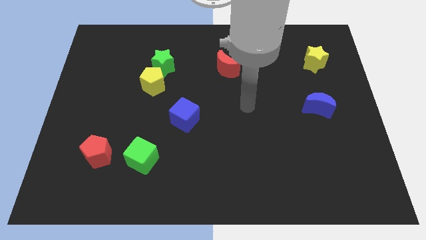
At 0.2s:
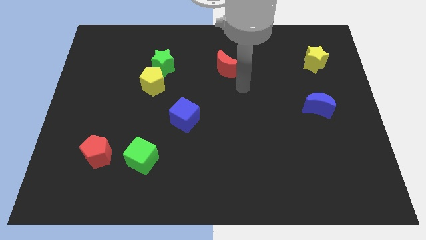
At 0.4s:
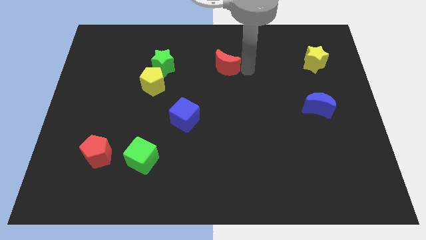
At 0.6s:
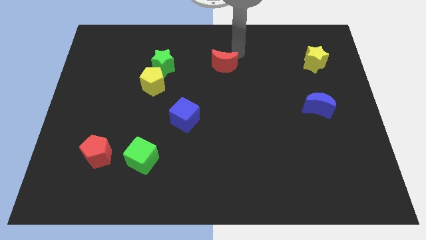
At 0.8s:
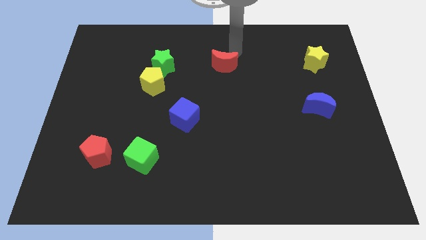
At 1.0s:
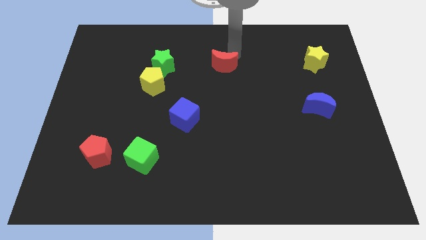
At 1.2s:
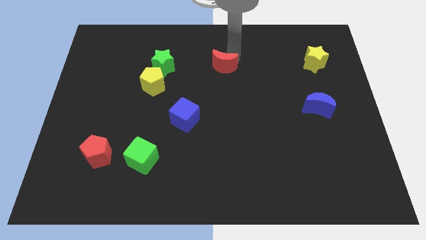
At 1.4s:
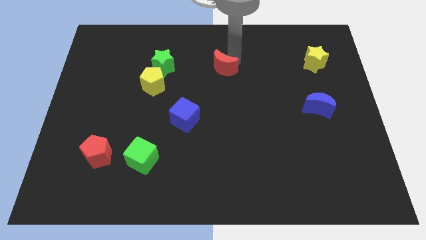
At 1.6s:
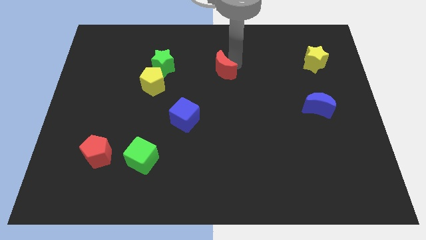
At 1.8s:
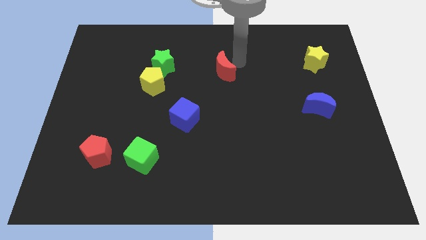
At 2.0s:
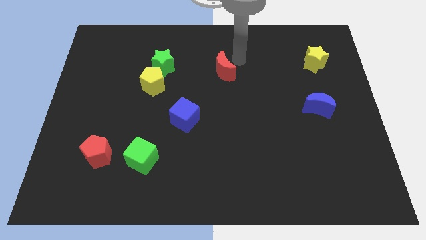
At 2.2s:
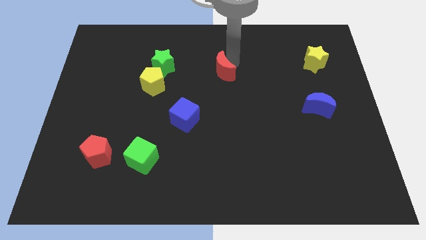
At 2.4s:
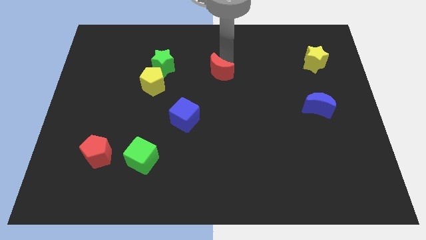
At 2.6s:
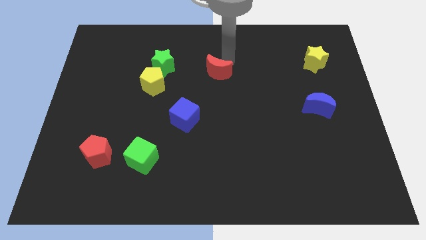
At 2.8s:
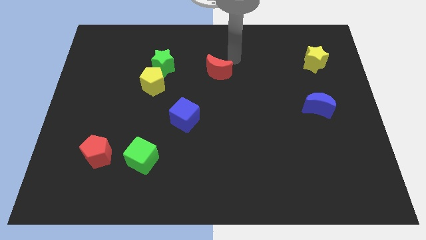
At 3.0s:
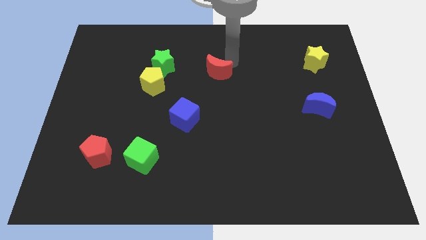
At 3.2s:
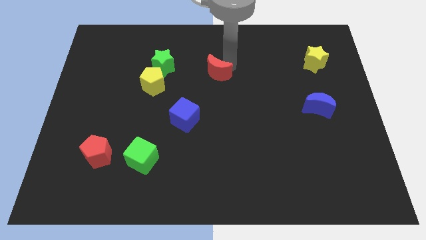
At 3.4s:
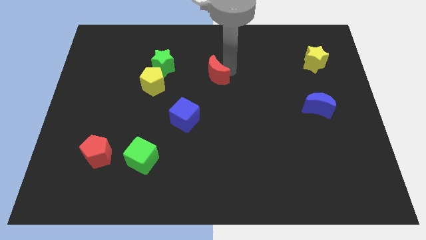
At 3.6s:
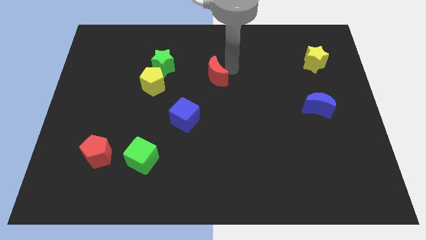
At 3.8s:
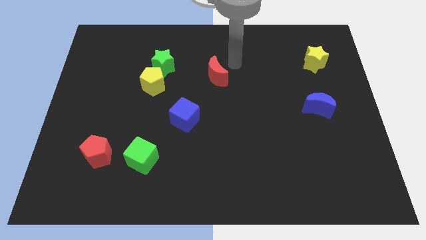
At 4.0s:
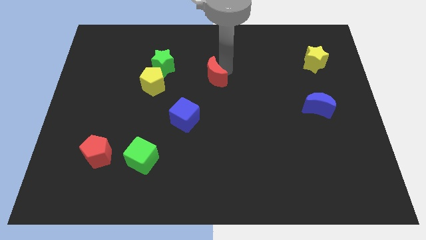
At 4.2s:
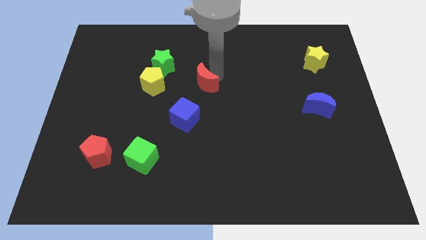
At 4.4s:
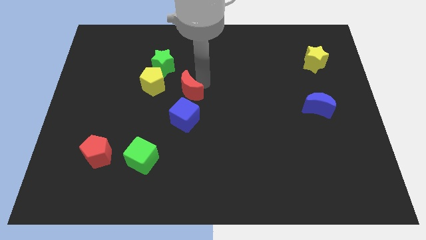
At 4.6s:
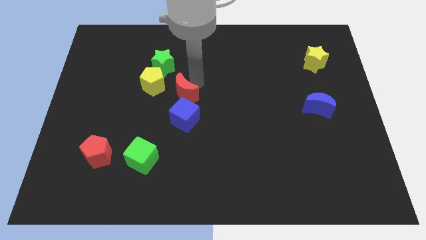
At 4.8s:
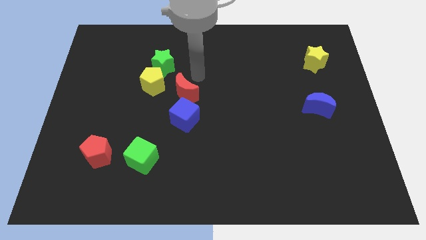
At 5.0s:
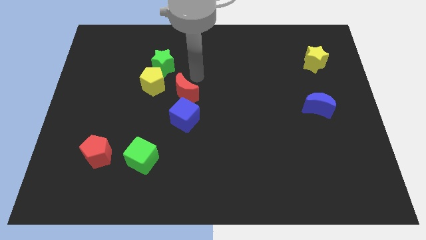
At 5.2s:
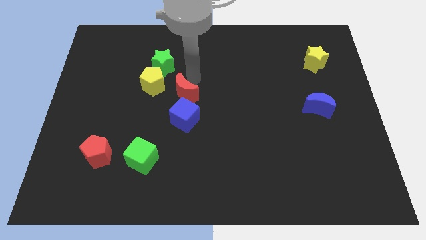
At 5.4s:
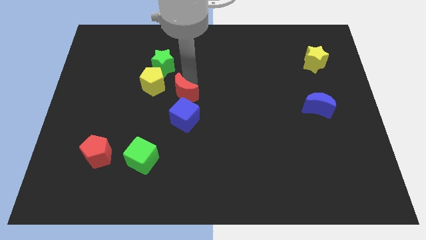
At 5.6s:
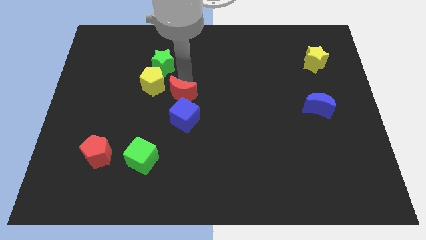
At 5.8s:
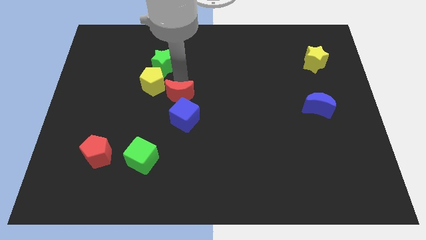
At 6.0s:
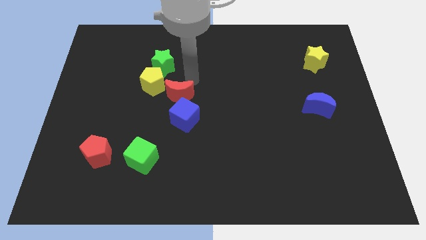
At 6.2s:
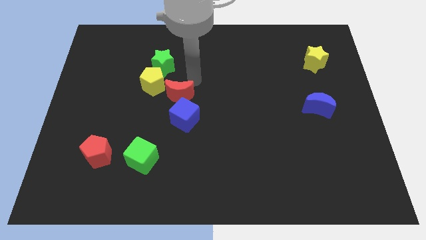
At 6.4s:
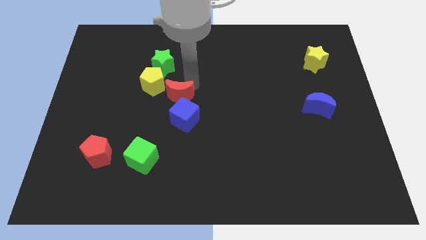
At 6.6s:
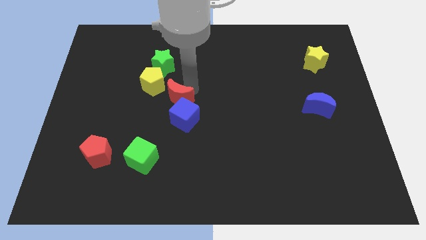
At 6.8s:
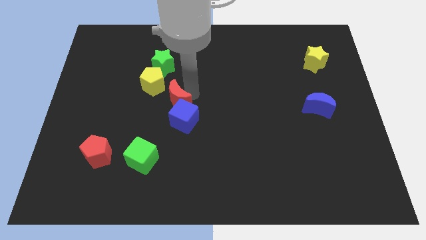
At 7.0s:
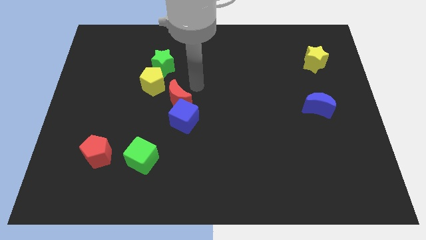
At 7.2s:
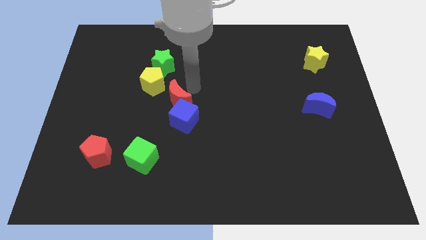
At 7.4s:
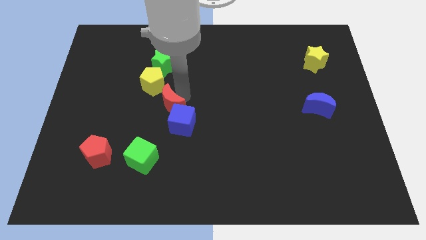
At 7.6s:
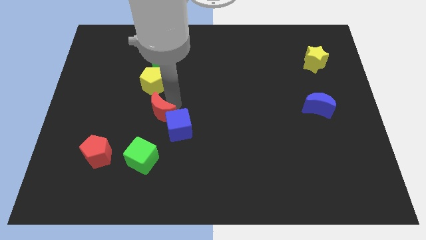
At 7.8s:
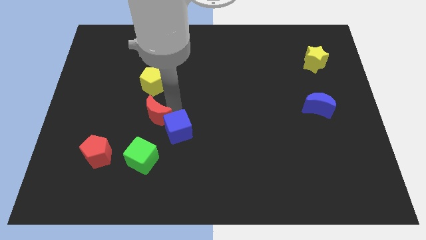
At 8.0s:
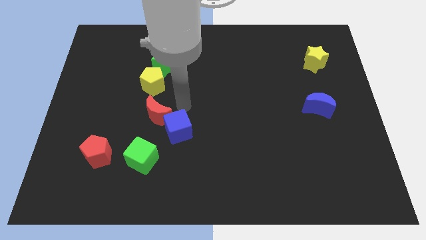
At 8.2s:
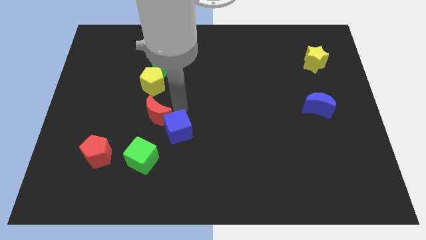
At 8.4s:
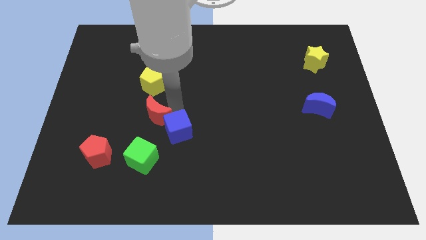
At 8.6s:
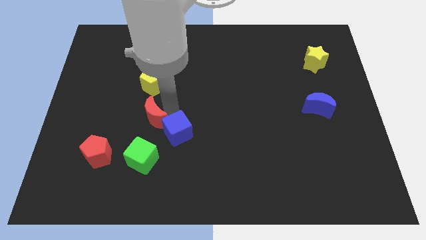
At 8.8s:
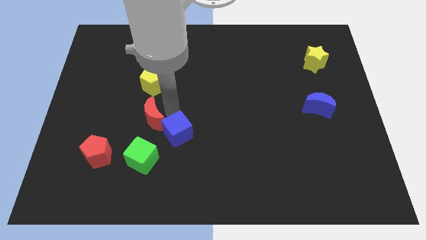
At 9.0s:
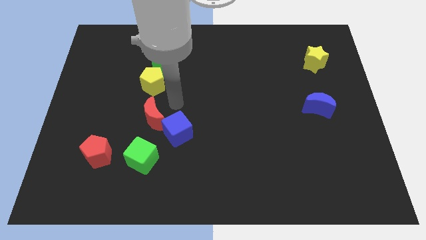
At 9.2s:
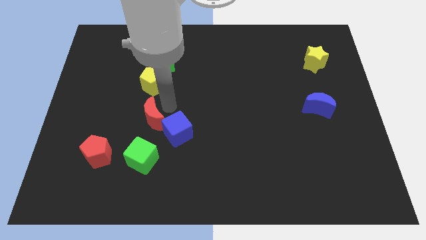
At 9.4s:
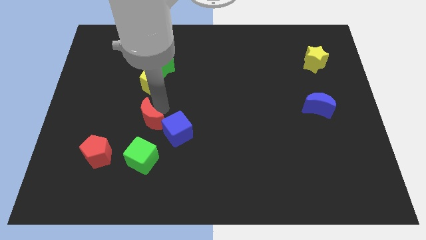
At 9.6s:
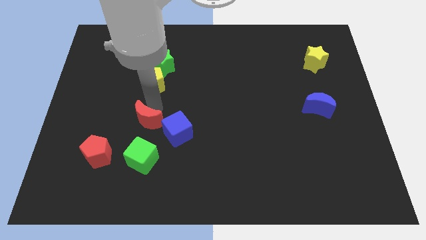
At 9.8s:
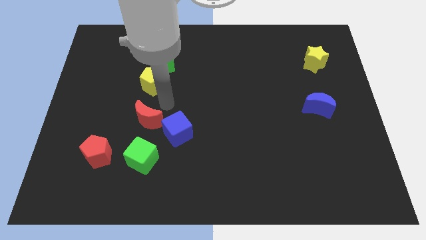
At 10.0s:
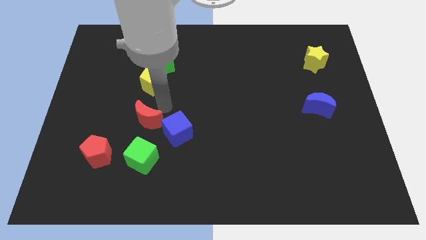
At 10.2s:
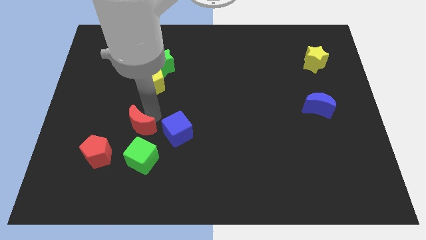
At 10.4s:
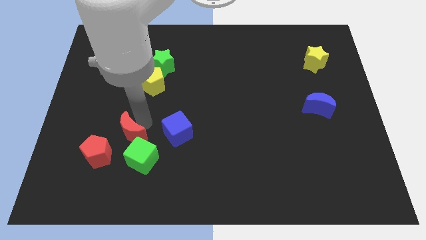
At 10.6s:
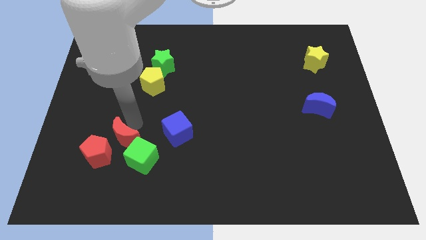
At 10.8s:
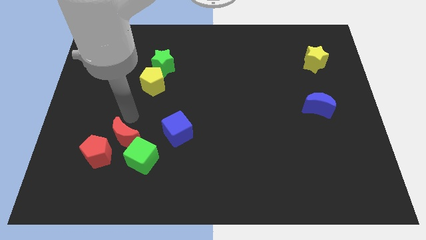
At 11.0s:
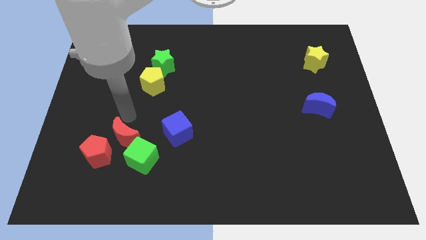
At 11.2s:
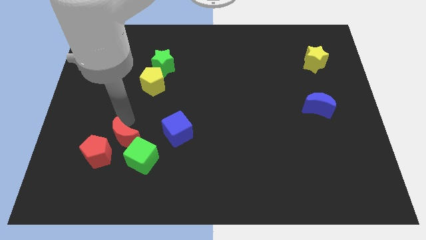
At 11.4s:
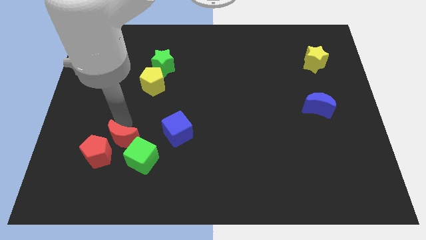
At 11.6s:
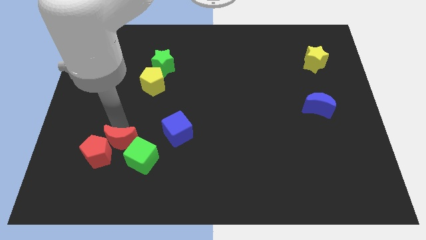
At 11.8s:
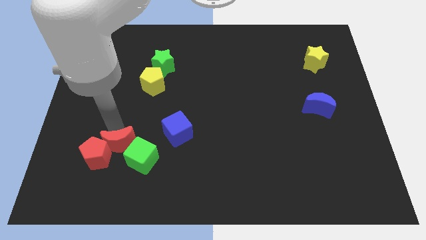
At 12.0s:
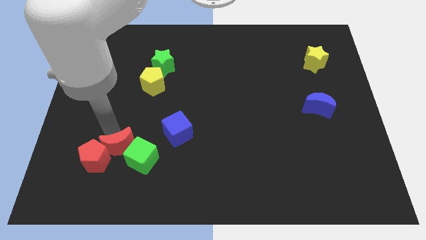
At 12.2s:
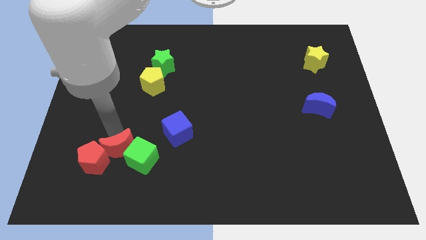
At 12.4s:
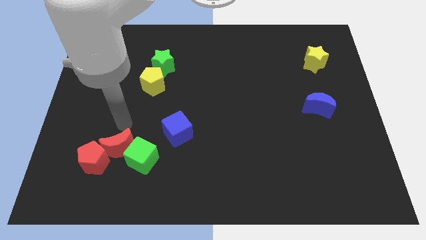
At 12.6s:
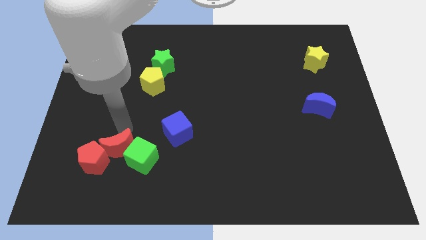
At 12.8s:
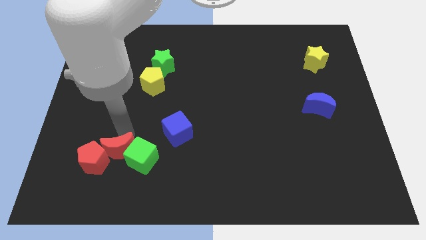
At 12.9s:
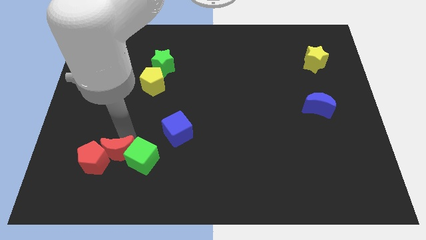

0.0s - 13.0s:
slide the red moon diagonally down and to the left of the green cube
